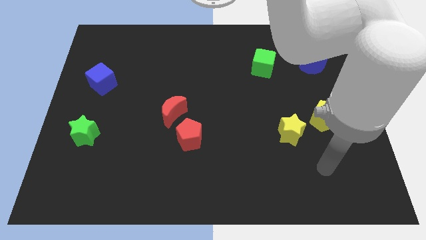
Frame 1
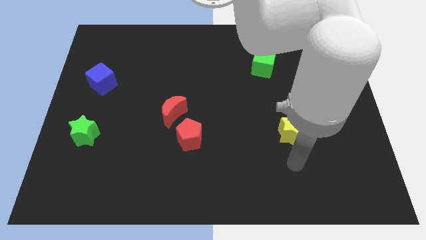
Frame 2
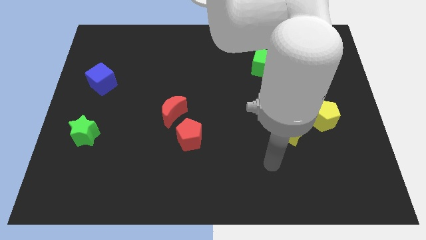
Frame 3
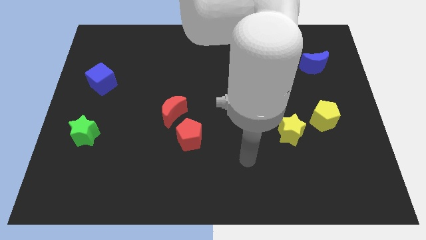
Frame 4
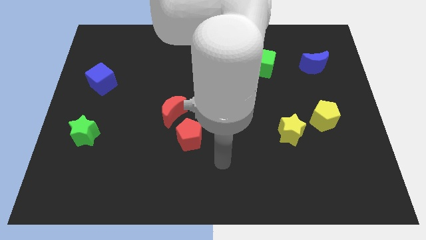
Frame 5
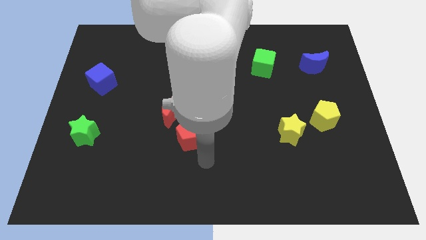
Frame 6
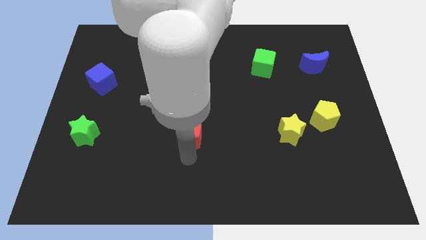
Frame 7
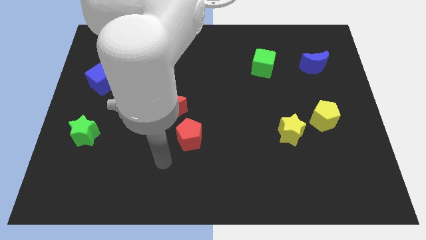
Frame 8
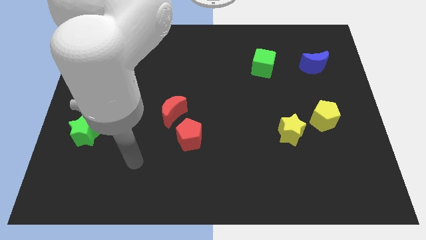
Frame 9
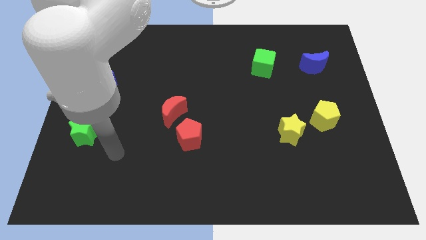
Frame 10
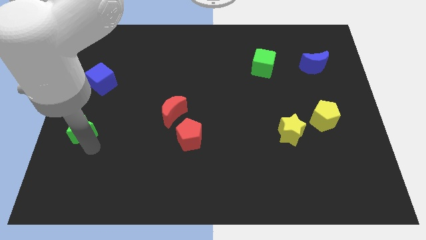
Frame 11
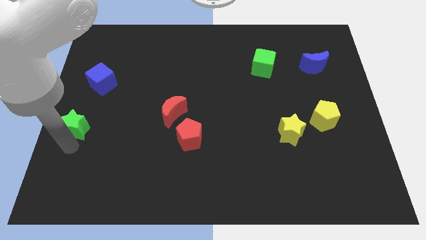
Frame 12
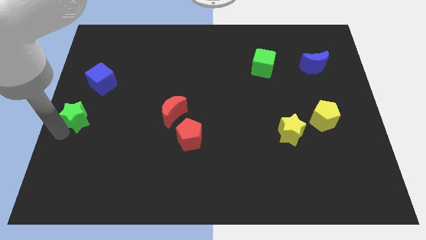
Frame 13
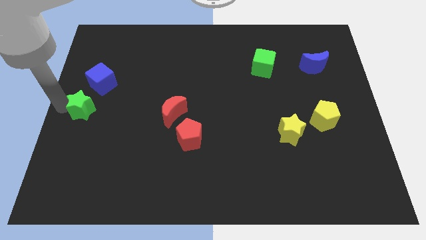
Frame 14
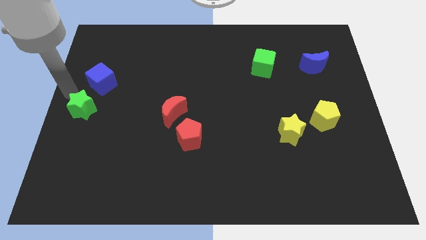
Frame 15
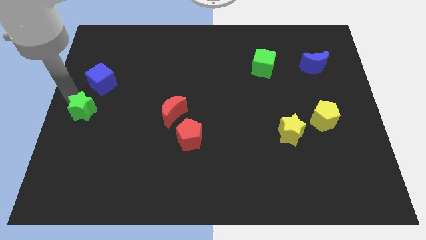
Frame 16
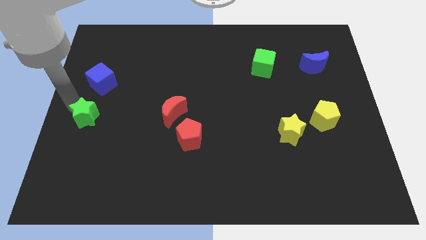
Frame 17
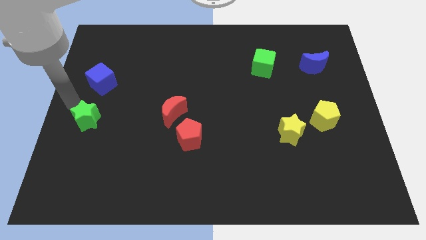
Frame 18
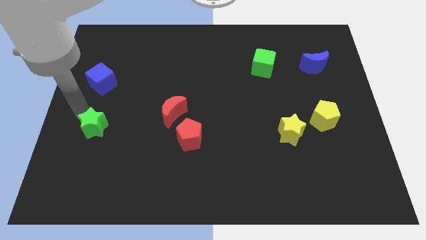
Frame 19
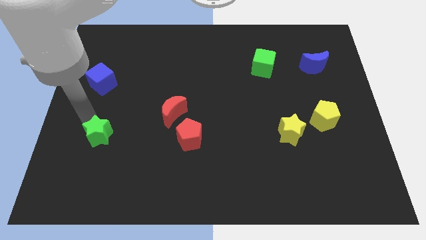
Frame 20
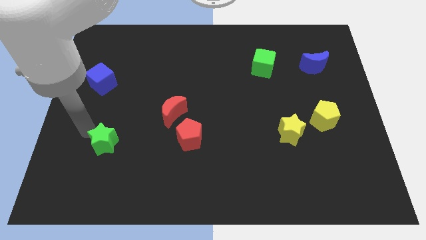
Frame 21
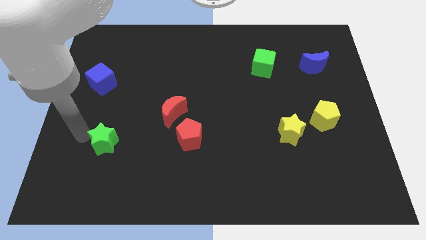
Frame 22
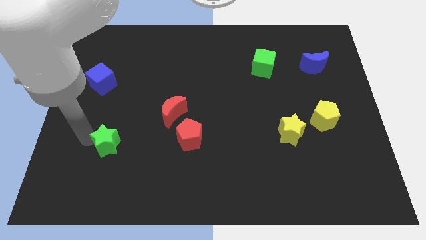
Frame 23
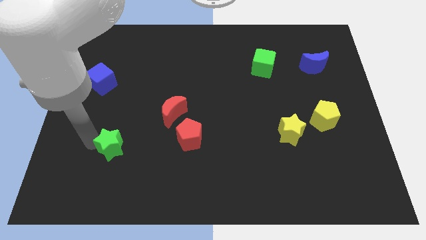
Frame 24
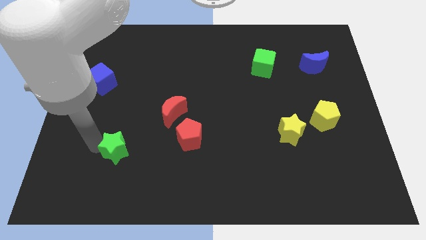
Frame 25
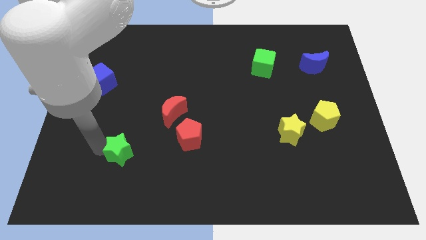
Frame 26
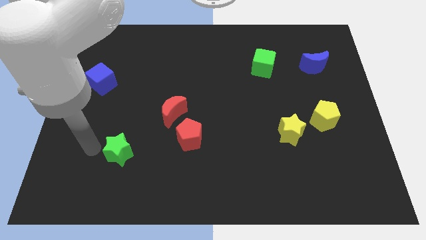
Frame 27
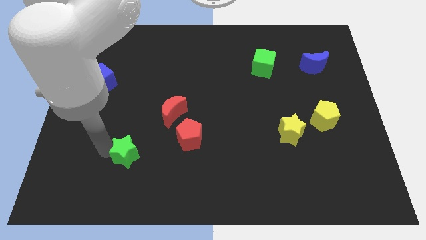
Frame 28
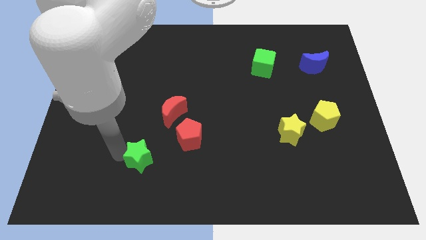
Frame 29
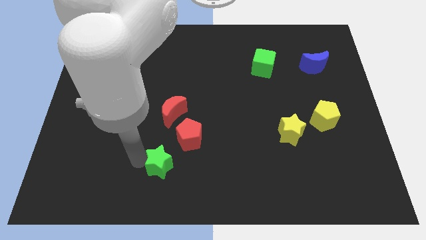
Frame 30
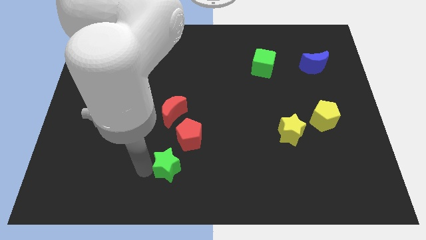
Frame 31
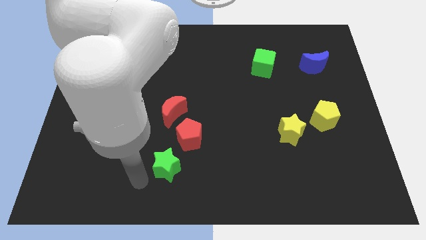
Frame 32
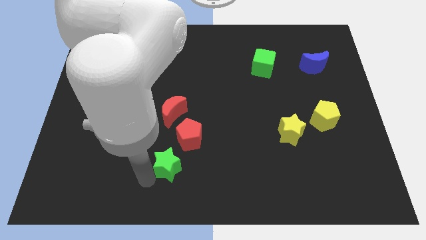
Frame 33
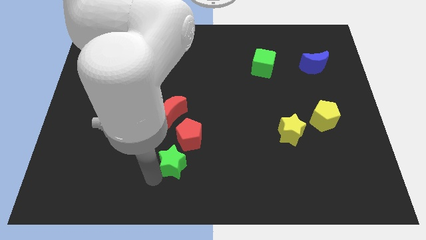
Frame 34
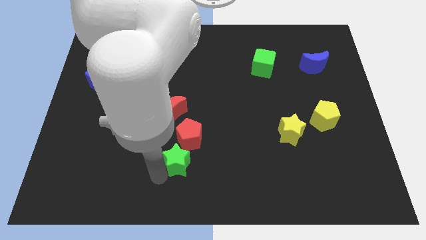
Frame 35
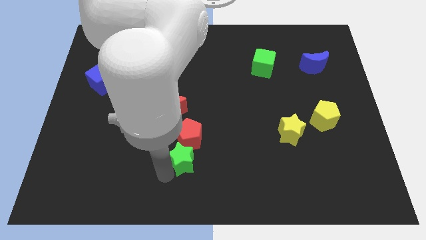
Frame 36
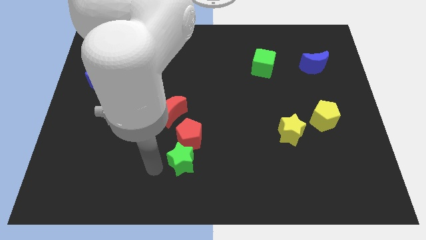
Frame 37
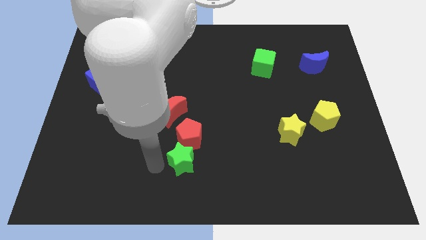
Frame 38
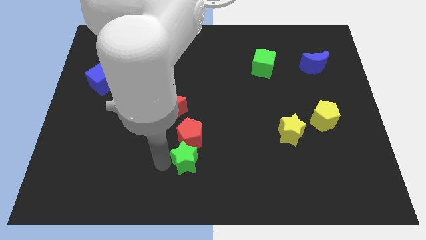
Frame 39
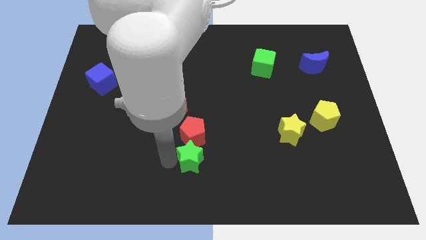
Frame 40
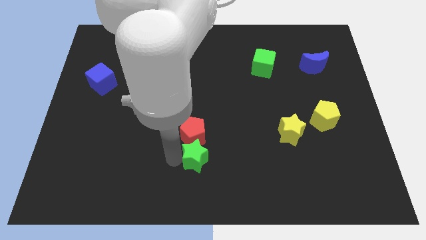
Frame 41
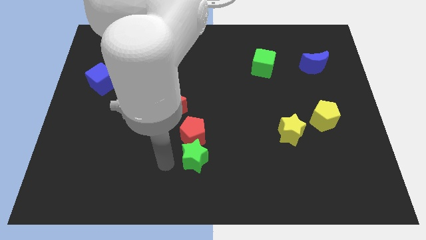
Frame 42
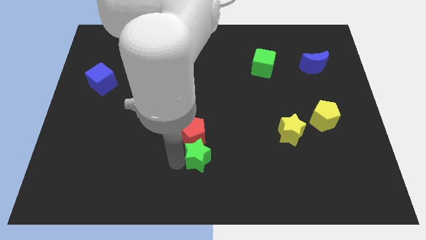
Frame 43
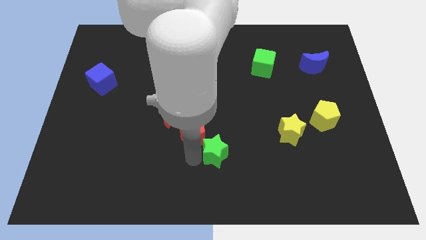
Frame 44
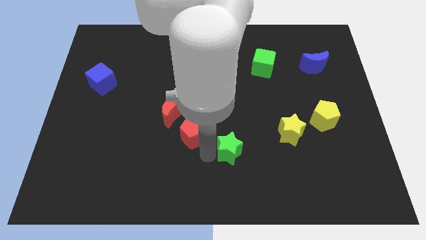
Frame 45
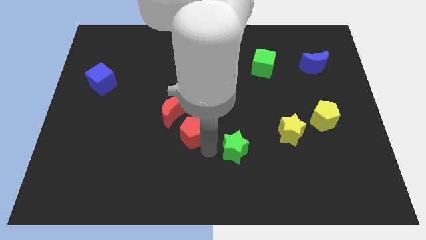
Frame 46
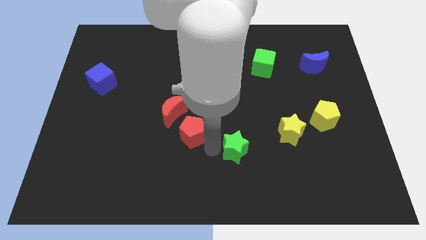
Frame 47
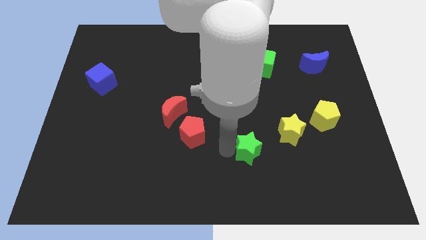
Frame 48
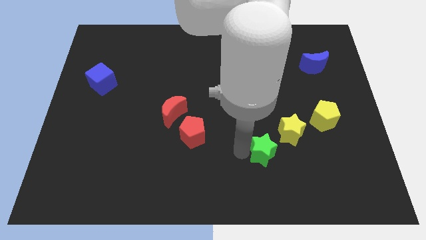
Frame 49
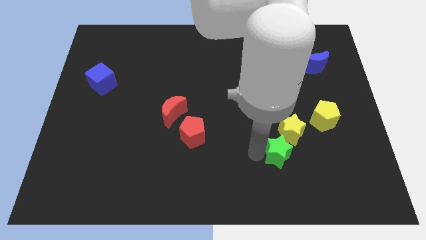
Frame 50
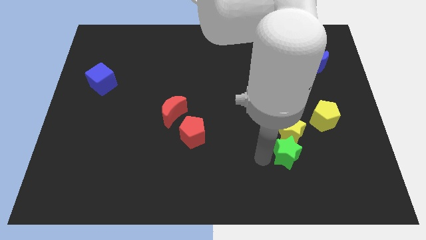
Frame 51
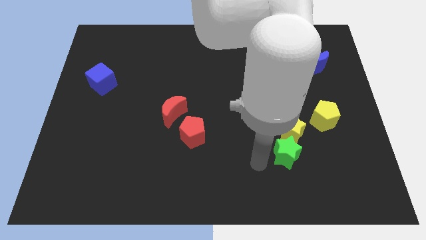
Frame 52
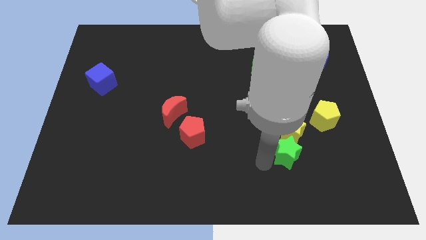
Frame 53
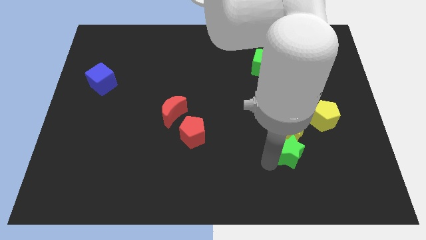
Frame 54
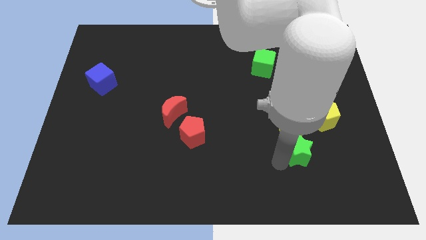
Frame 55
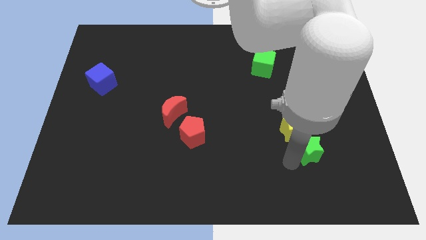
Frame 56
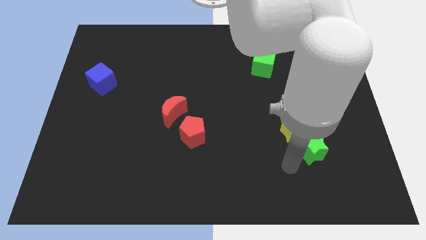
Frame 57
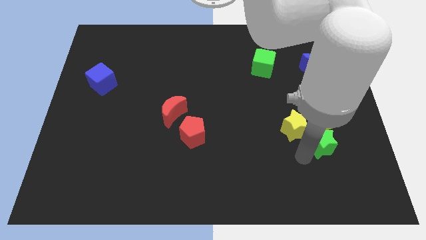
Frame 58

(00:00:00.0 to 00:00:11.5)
put the green star to the right of the yellow star

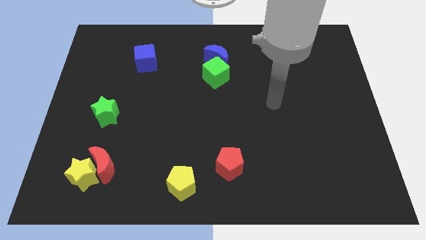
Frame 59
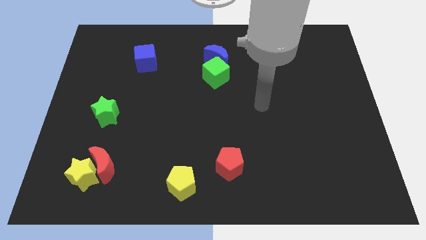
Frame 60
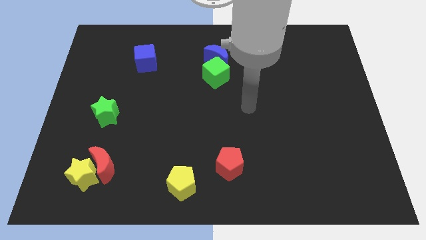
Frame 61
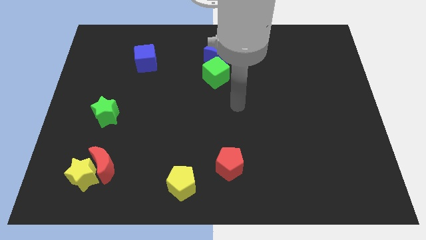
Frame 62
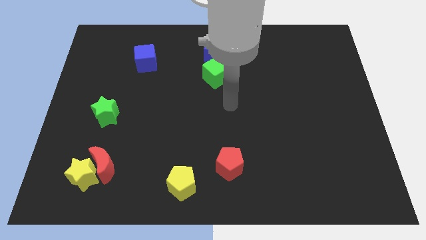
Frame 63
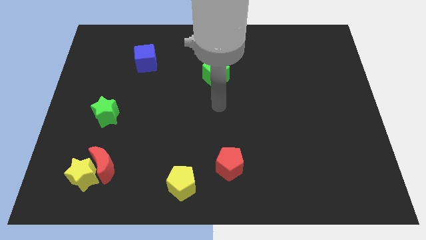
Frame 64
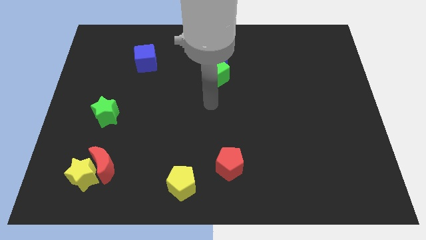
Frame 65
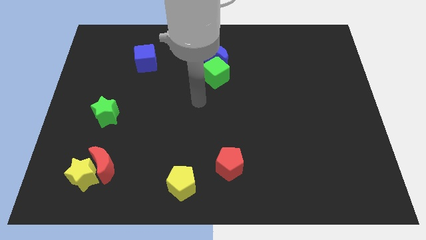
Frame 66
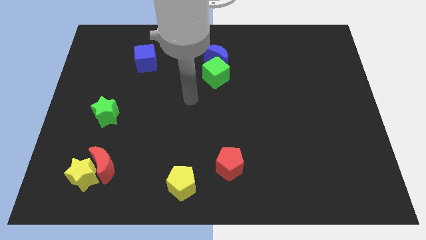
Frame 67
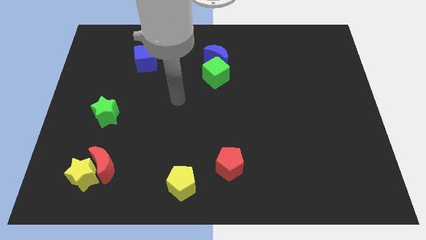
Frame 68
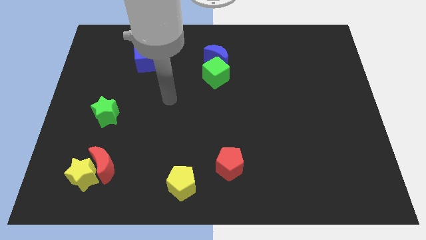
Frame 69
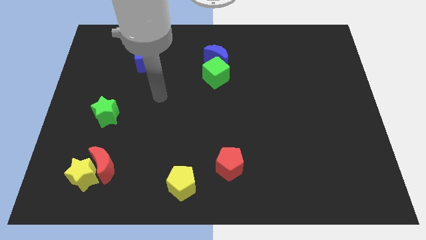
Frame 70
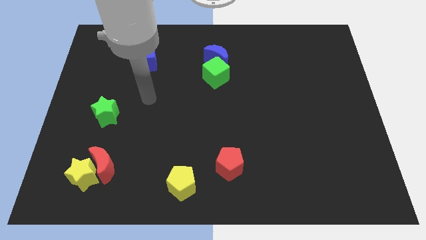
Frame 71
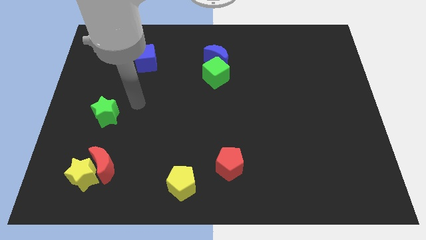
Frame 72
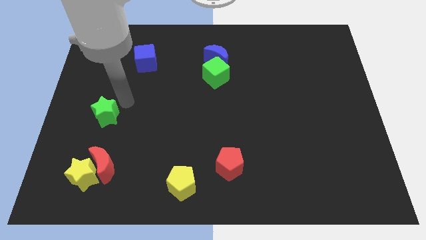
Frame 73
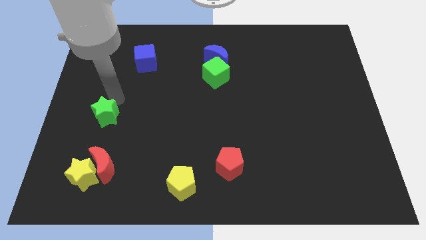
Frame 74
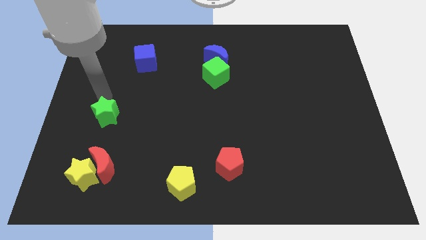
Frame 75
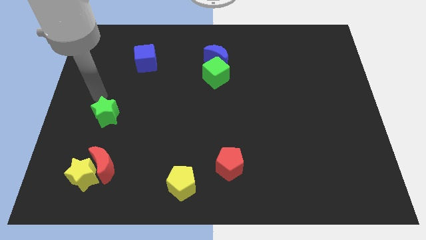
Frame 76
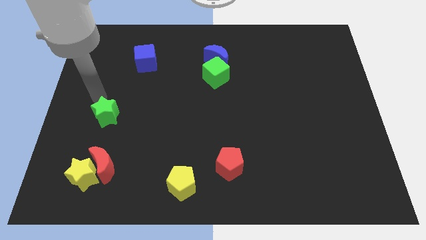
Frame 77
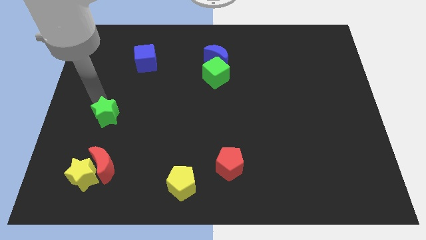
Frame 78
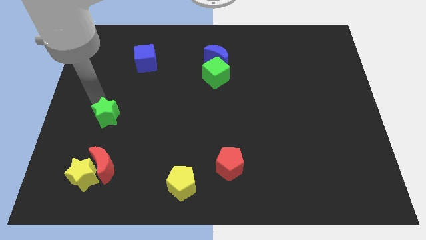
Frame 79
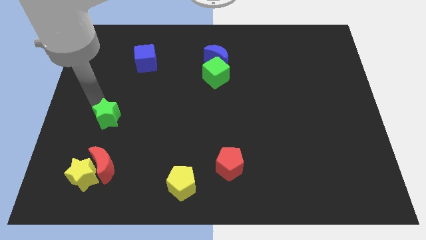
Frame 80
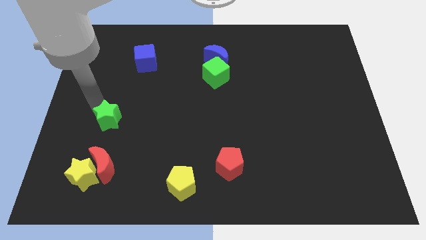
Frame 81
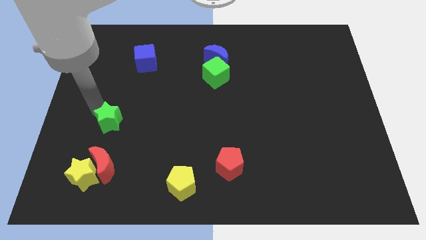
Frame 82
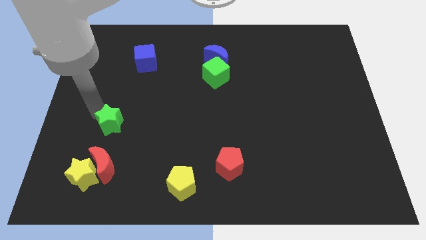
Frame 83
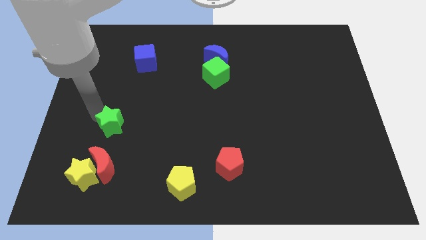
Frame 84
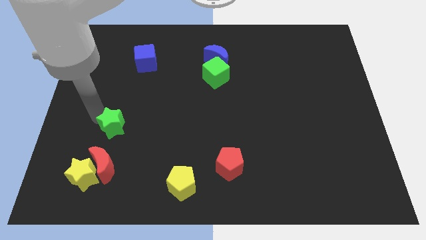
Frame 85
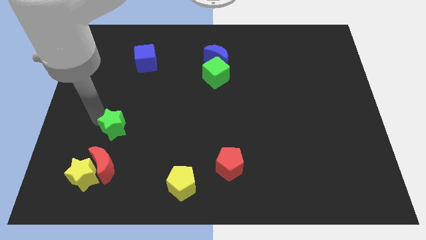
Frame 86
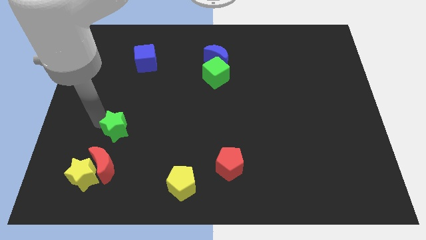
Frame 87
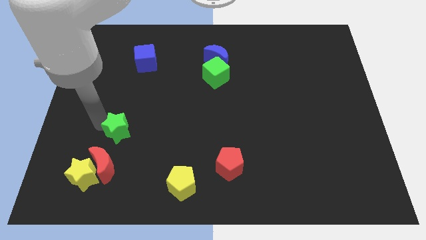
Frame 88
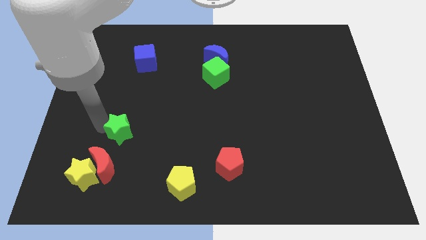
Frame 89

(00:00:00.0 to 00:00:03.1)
slide the green star to the top right of the red moon
